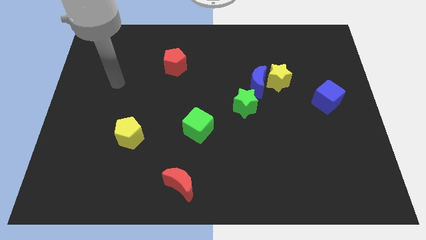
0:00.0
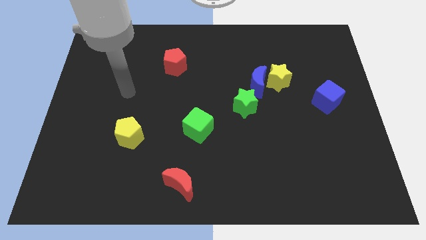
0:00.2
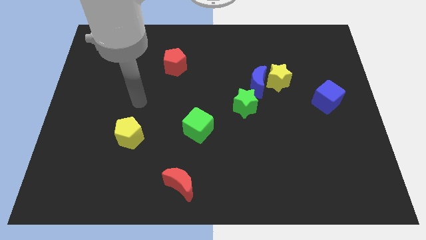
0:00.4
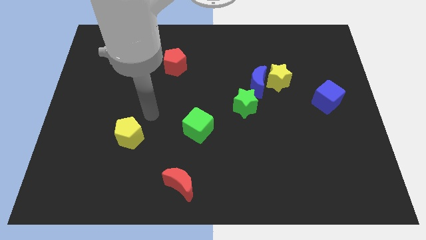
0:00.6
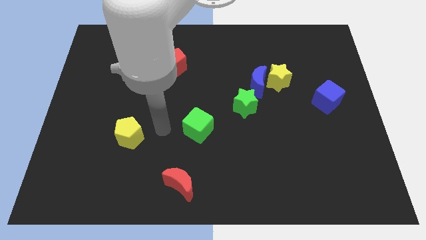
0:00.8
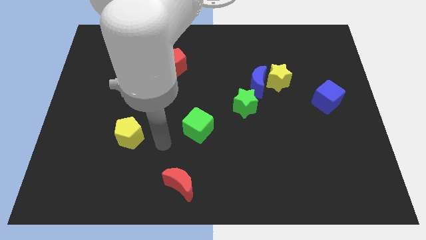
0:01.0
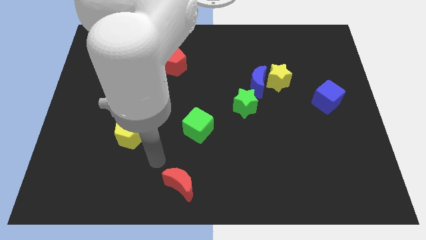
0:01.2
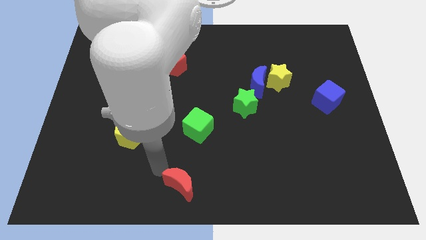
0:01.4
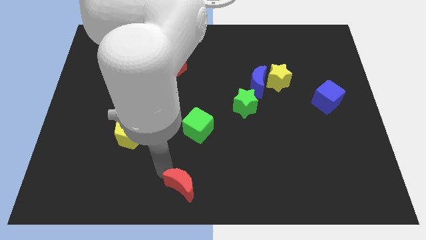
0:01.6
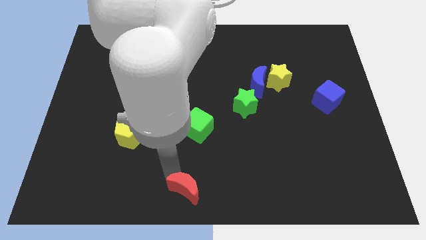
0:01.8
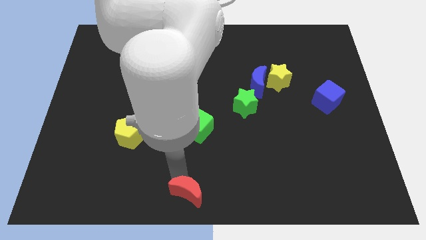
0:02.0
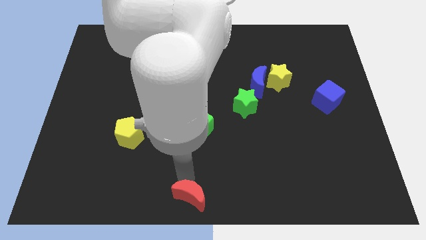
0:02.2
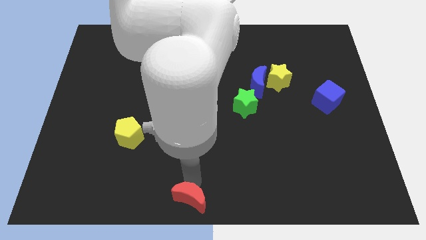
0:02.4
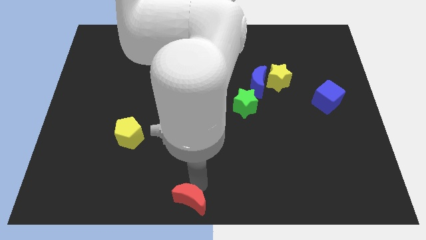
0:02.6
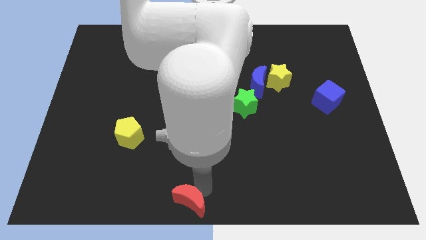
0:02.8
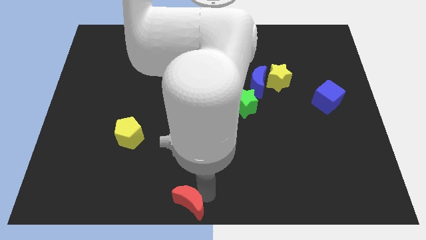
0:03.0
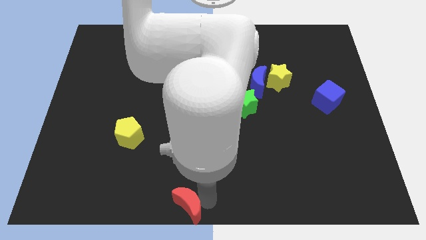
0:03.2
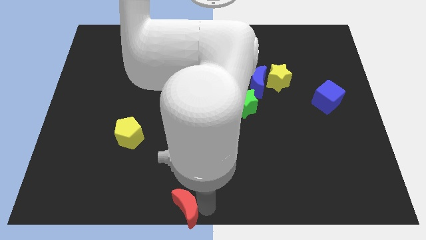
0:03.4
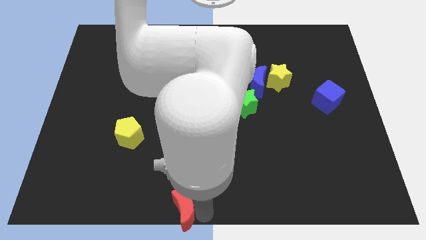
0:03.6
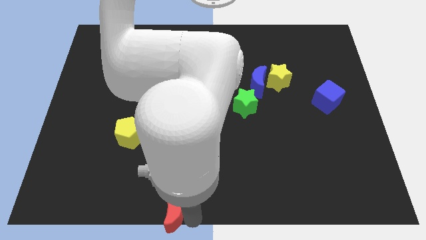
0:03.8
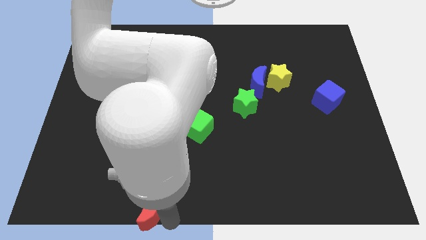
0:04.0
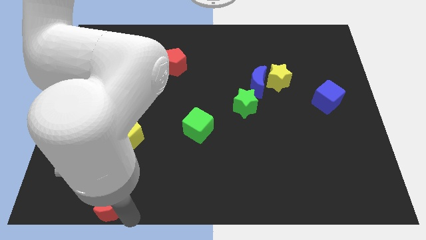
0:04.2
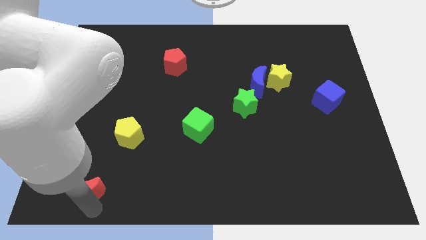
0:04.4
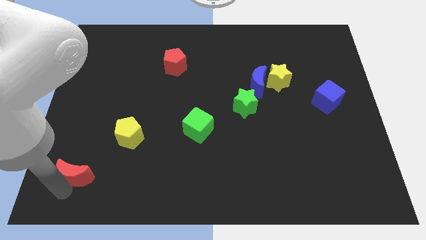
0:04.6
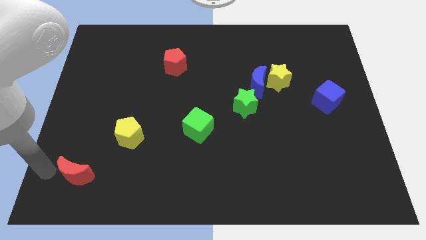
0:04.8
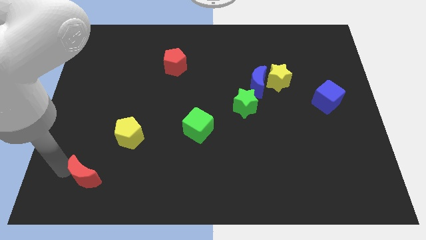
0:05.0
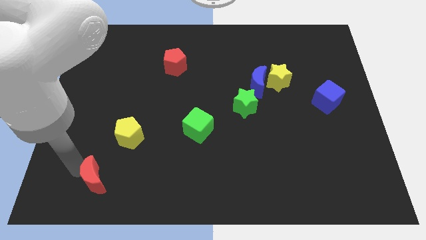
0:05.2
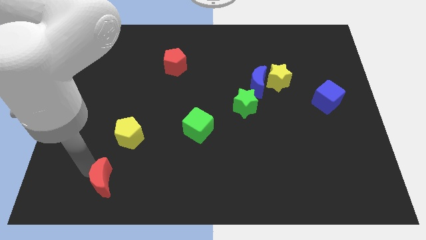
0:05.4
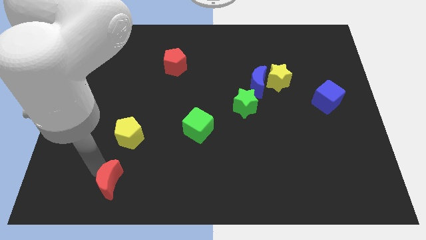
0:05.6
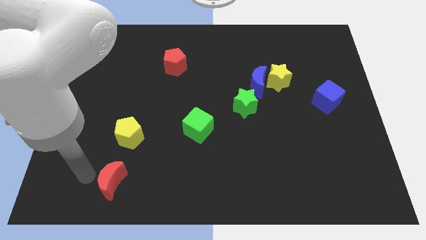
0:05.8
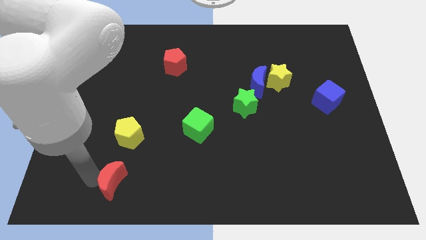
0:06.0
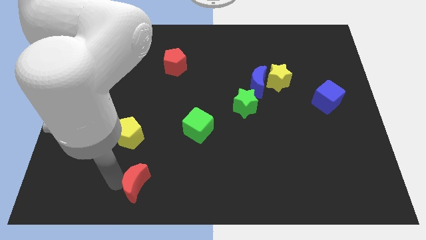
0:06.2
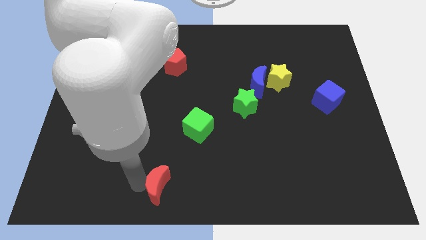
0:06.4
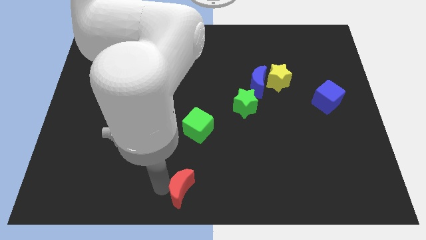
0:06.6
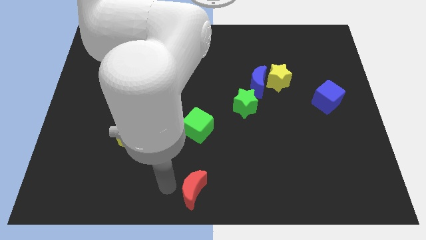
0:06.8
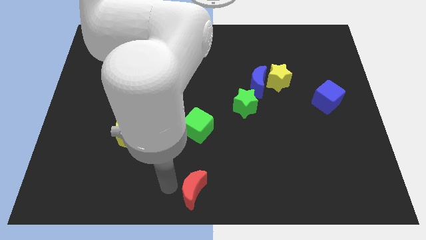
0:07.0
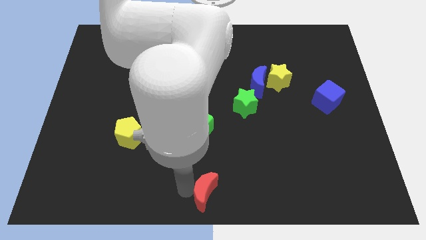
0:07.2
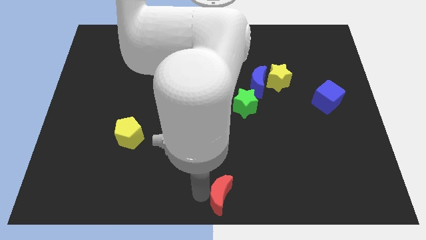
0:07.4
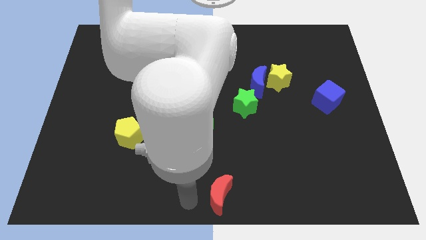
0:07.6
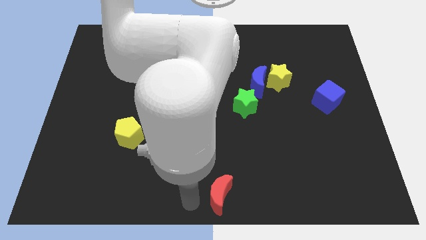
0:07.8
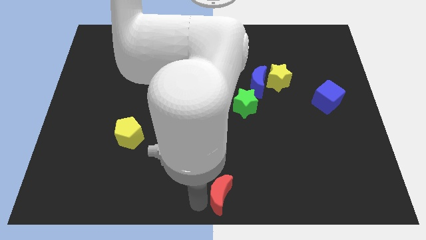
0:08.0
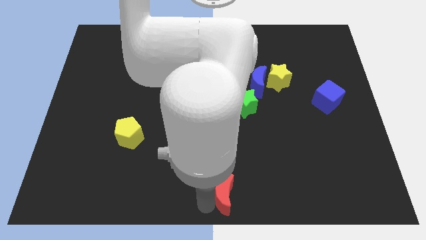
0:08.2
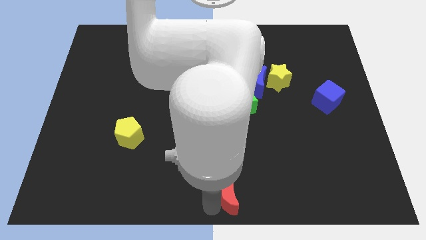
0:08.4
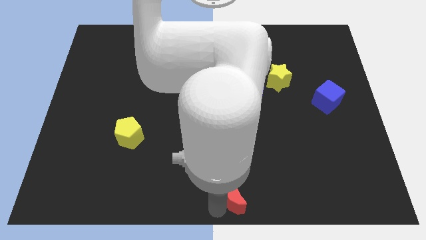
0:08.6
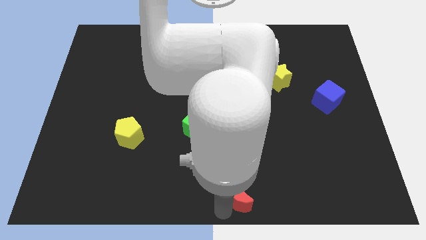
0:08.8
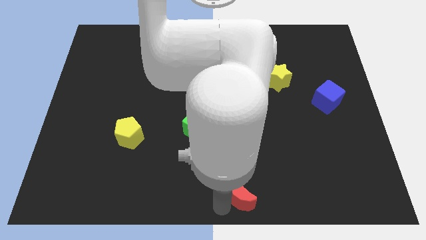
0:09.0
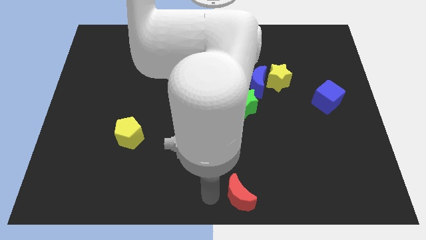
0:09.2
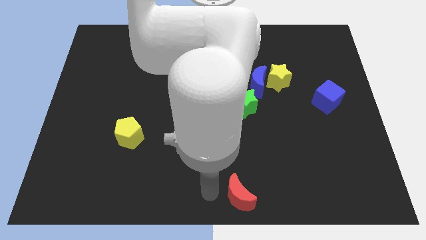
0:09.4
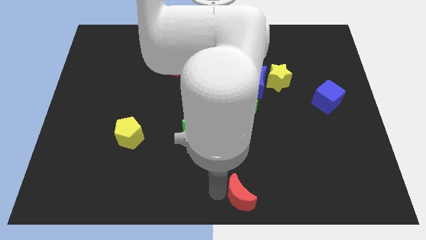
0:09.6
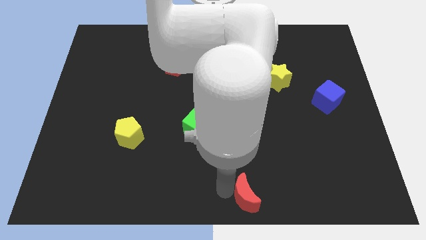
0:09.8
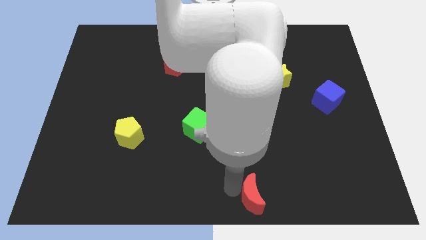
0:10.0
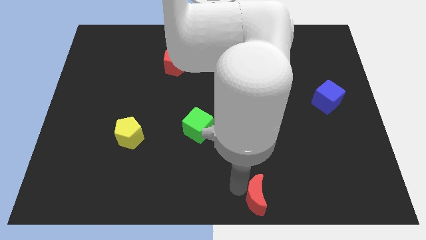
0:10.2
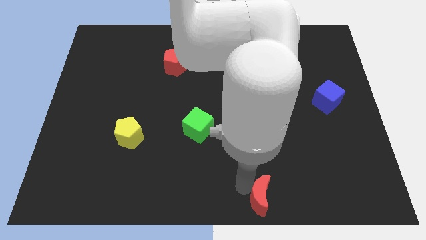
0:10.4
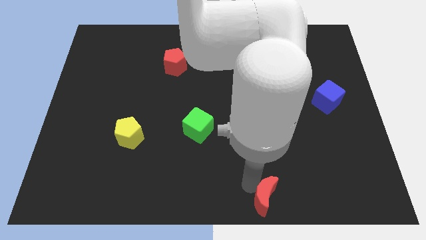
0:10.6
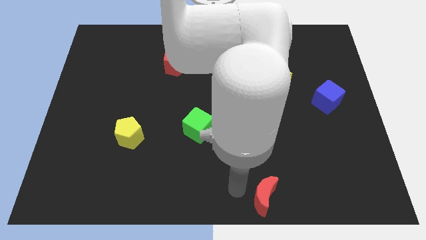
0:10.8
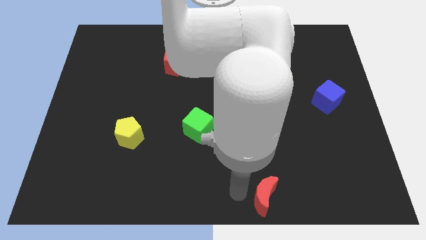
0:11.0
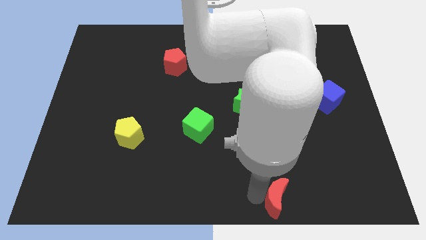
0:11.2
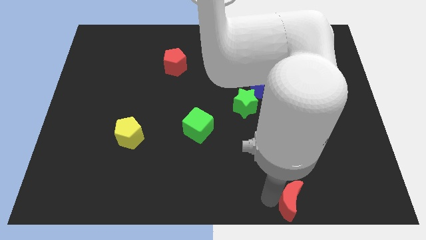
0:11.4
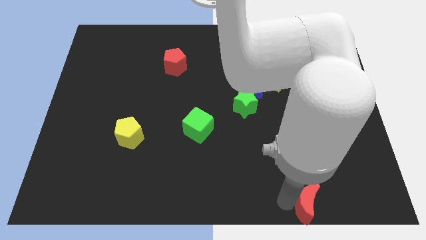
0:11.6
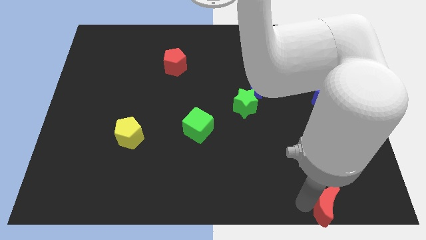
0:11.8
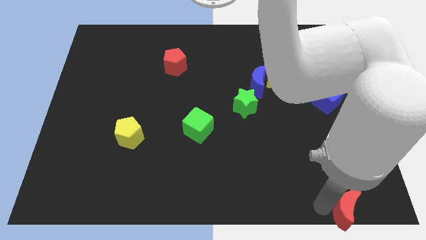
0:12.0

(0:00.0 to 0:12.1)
push the red moon to the bottom right

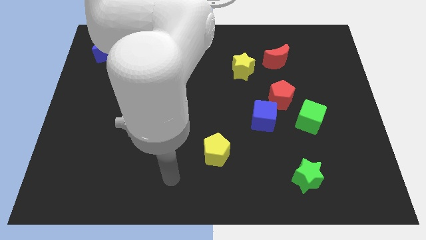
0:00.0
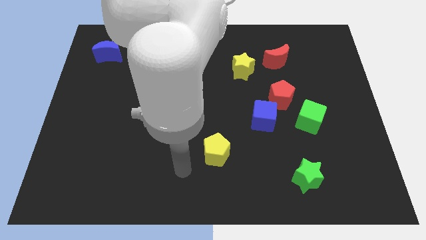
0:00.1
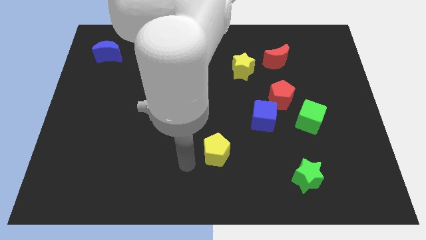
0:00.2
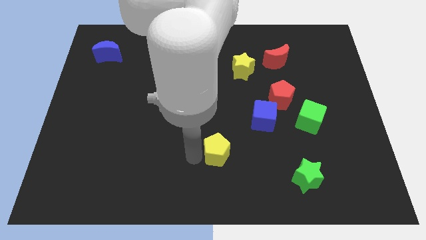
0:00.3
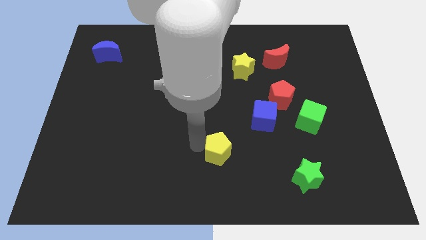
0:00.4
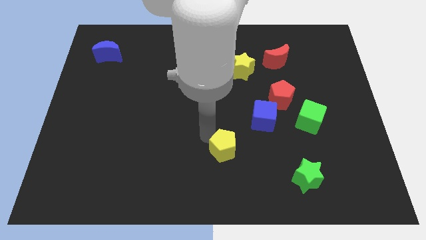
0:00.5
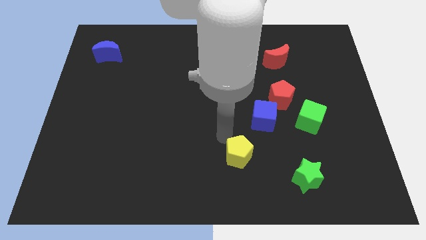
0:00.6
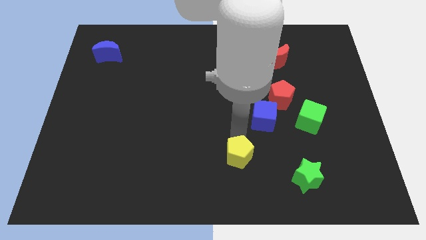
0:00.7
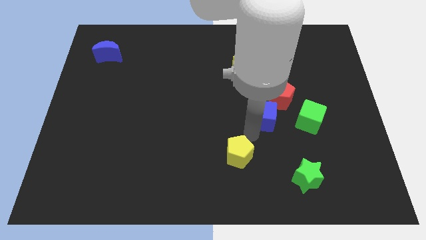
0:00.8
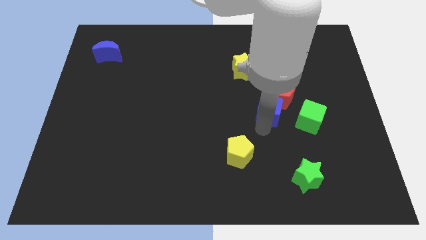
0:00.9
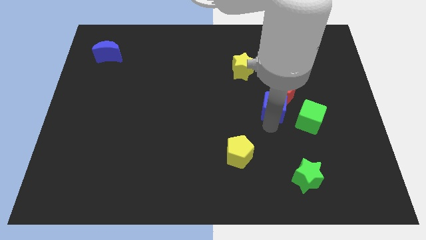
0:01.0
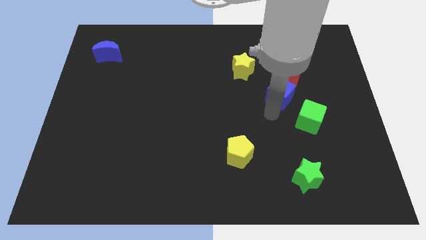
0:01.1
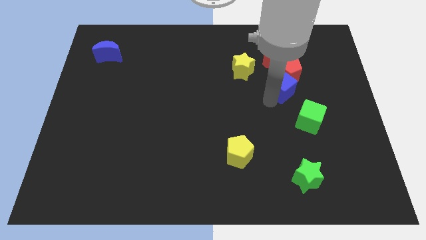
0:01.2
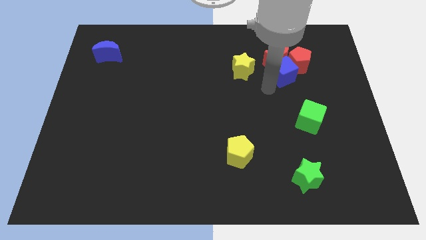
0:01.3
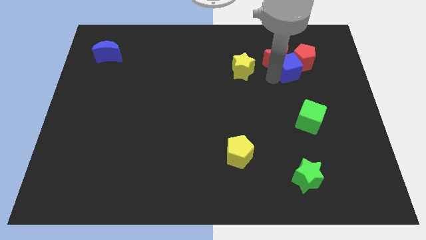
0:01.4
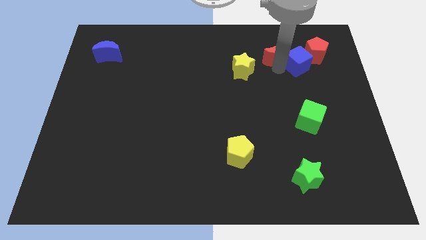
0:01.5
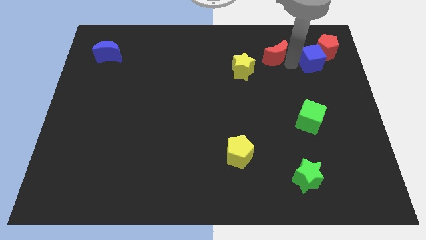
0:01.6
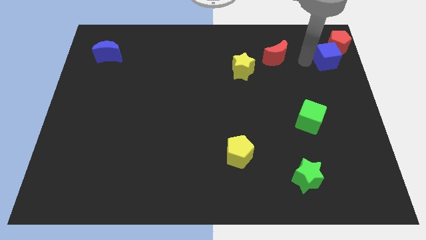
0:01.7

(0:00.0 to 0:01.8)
put the red pentagon to the top right
